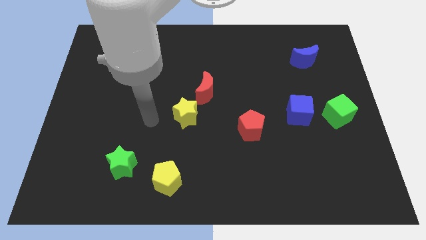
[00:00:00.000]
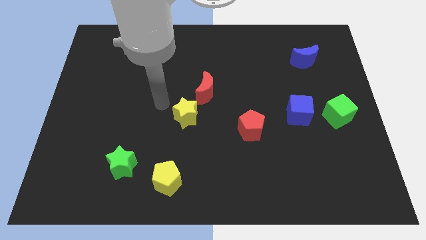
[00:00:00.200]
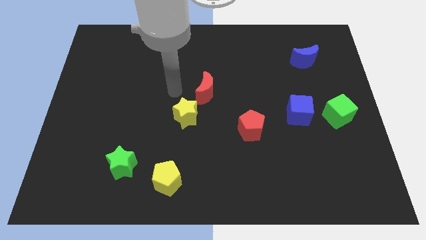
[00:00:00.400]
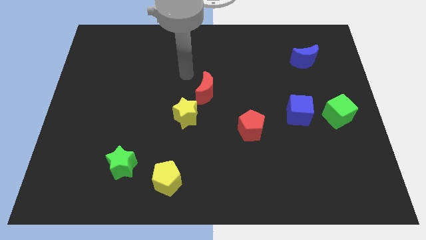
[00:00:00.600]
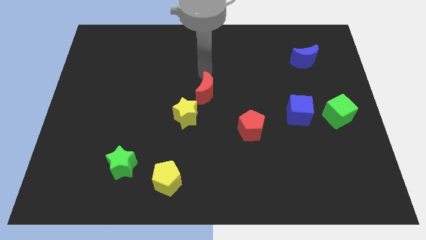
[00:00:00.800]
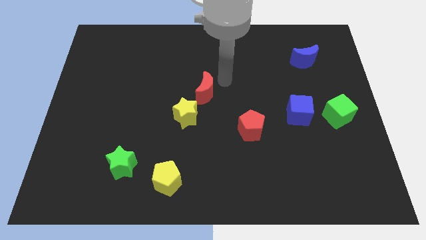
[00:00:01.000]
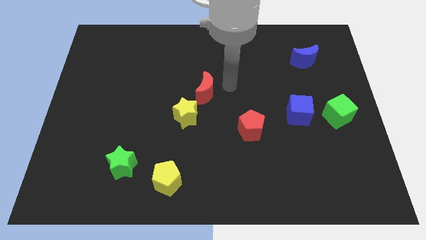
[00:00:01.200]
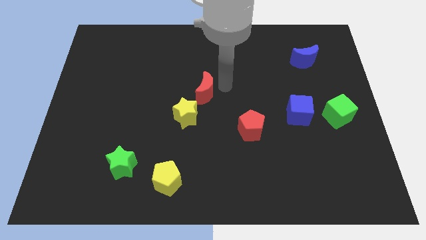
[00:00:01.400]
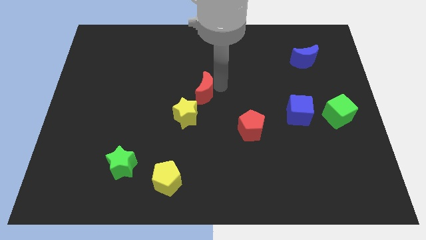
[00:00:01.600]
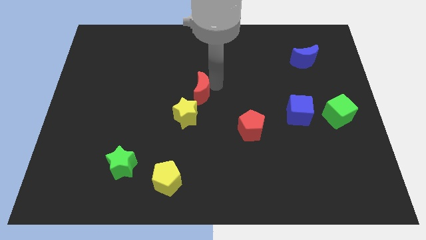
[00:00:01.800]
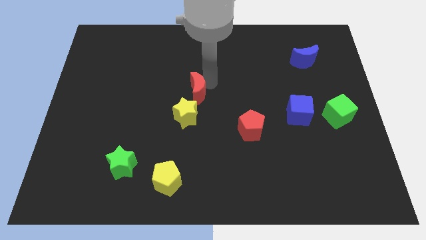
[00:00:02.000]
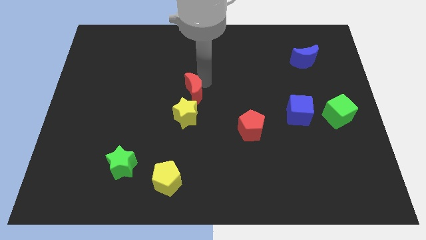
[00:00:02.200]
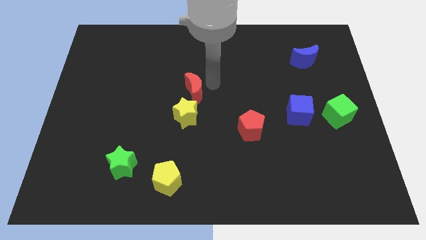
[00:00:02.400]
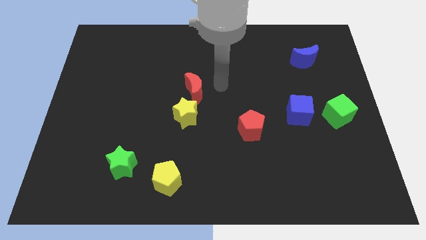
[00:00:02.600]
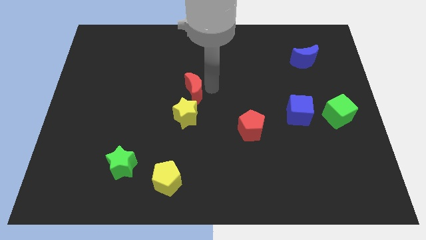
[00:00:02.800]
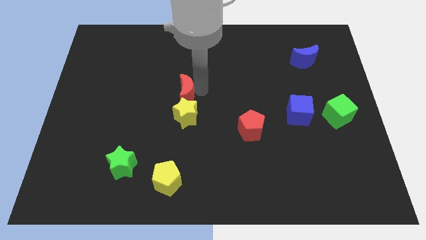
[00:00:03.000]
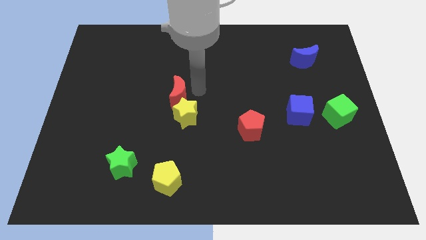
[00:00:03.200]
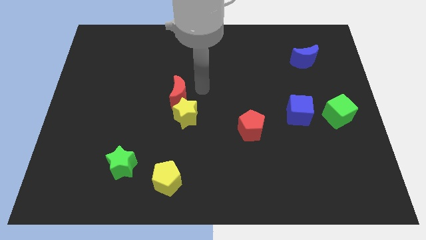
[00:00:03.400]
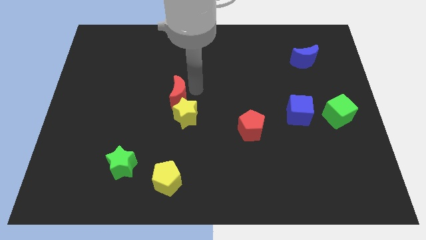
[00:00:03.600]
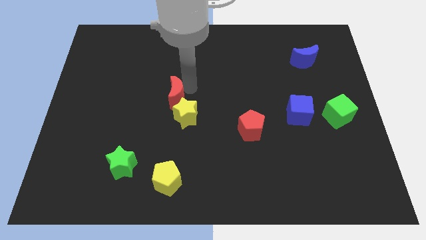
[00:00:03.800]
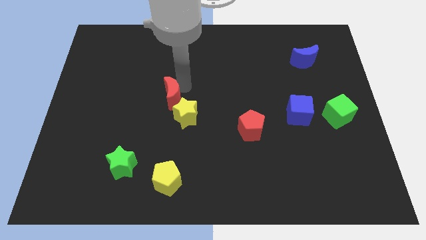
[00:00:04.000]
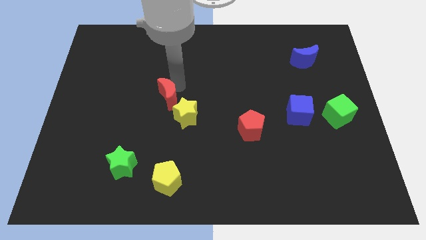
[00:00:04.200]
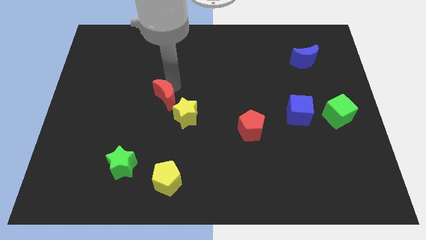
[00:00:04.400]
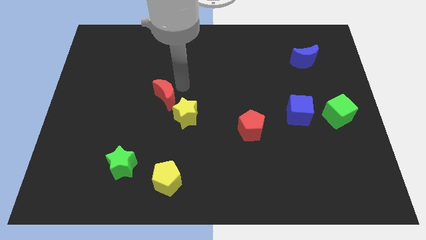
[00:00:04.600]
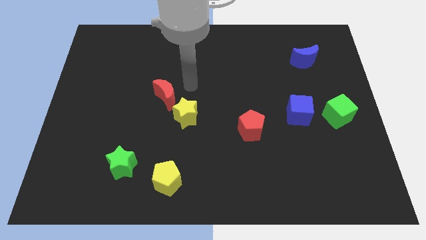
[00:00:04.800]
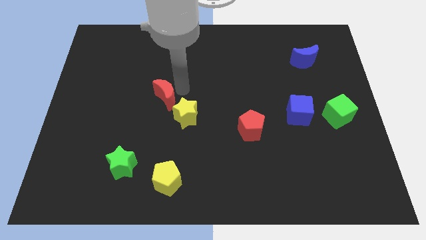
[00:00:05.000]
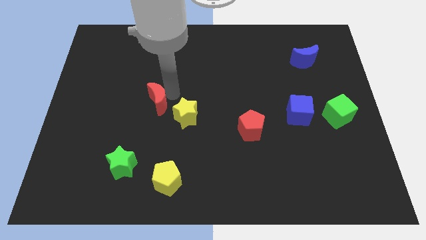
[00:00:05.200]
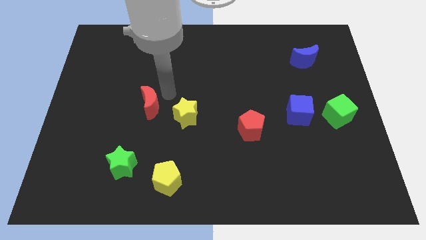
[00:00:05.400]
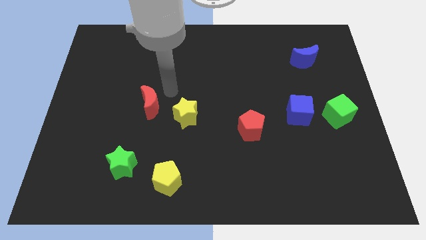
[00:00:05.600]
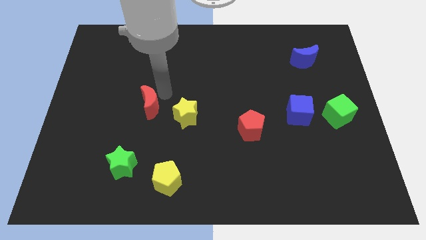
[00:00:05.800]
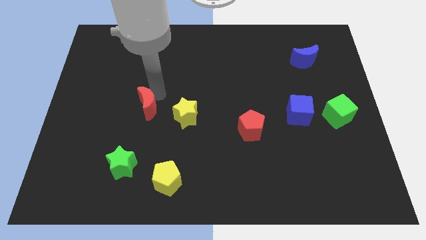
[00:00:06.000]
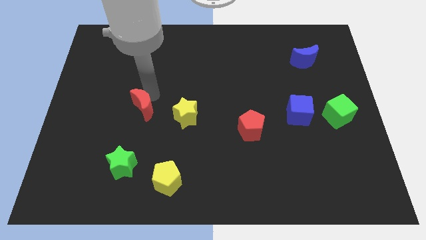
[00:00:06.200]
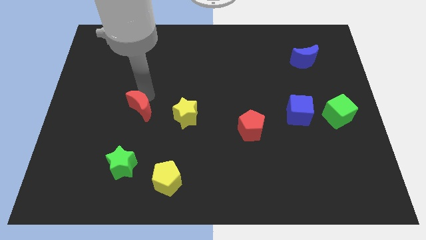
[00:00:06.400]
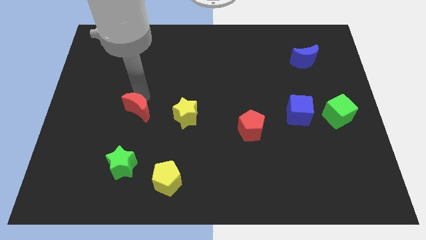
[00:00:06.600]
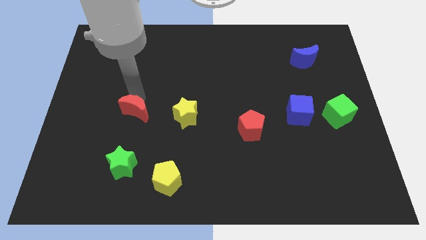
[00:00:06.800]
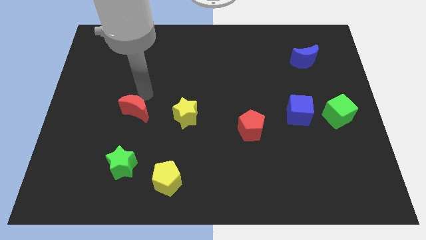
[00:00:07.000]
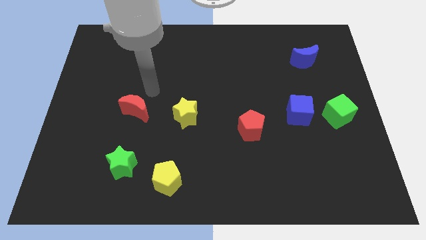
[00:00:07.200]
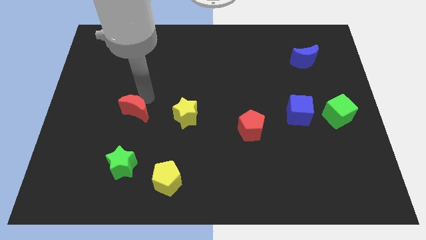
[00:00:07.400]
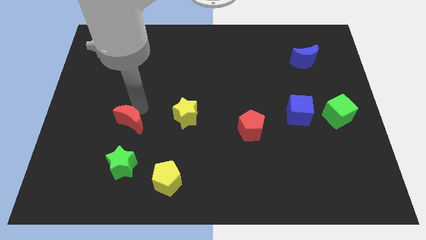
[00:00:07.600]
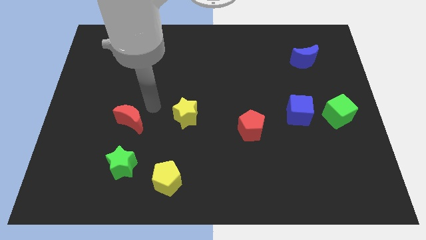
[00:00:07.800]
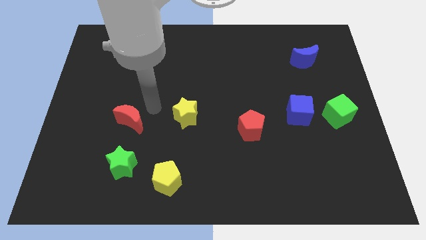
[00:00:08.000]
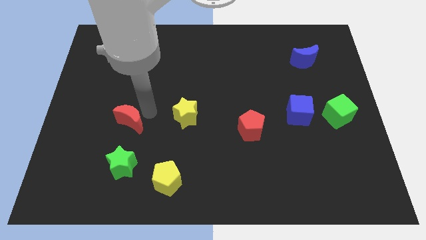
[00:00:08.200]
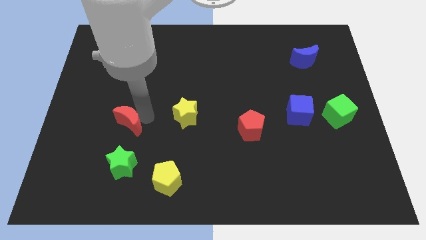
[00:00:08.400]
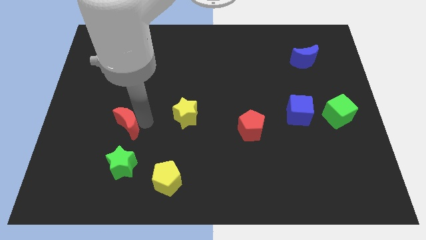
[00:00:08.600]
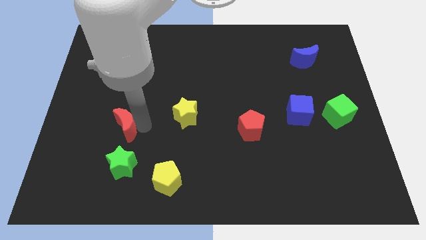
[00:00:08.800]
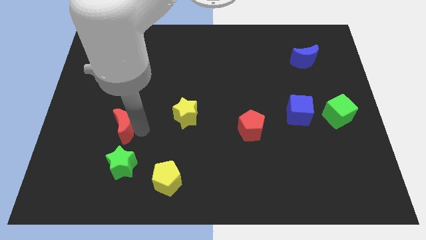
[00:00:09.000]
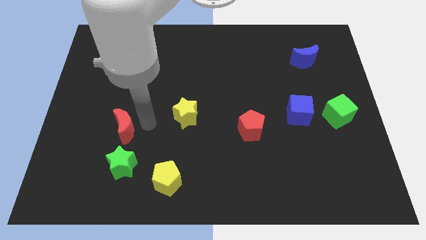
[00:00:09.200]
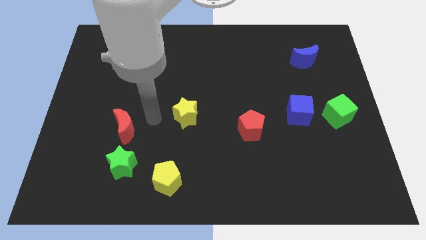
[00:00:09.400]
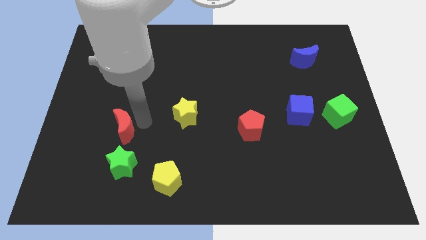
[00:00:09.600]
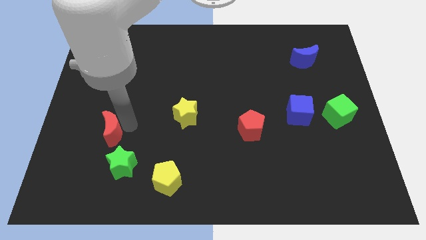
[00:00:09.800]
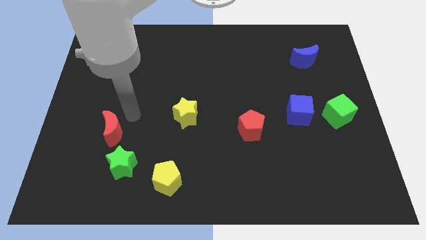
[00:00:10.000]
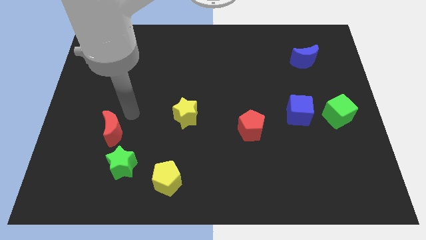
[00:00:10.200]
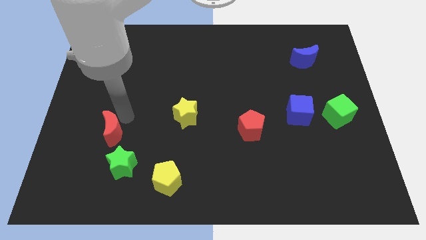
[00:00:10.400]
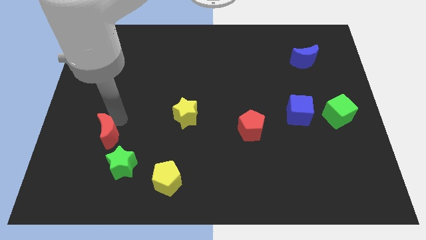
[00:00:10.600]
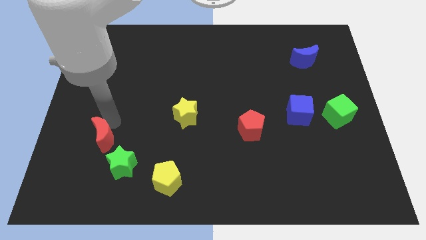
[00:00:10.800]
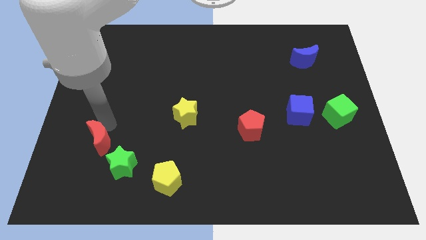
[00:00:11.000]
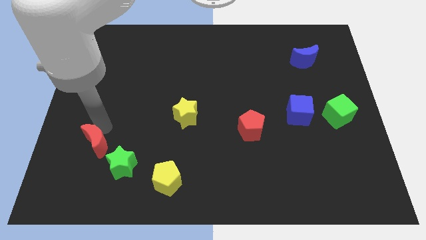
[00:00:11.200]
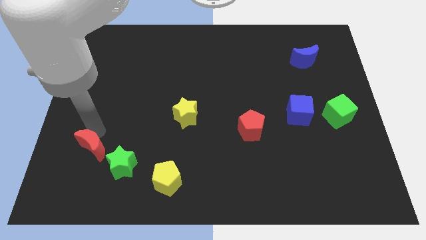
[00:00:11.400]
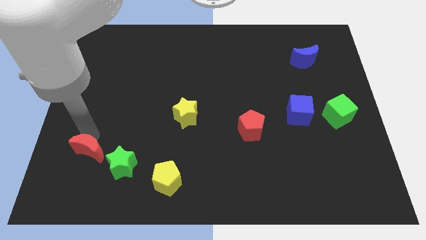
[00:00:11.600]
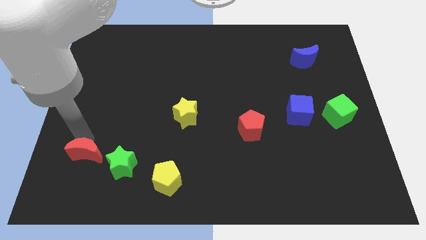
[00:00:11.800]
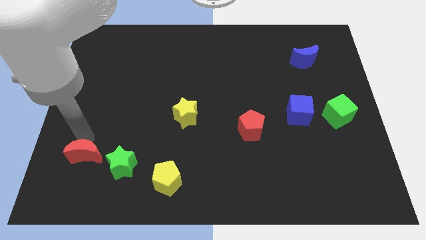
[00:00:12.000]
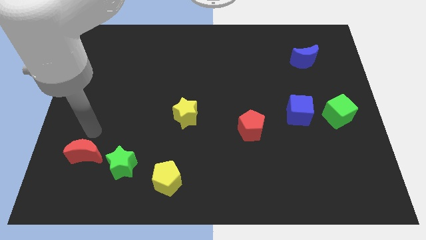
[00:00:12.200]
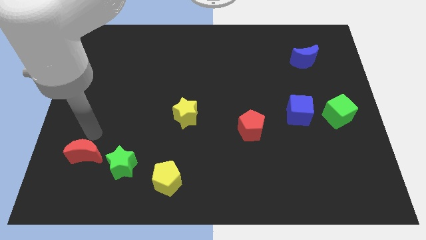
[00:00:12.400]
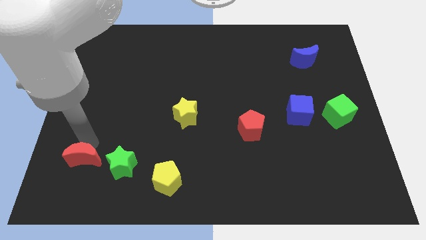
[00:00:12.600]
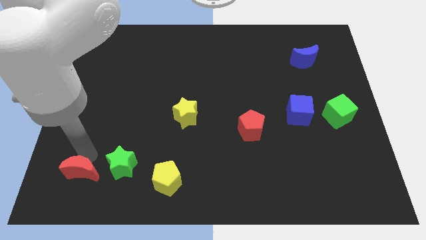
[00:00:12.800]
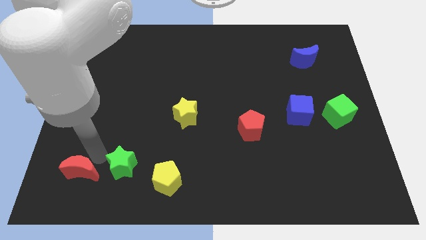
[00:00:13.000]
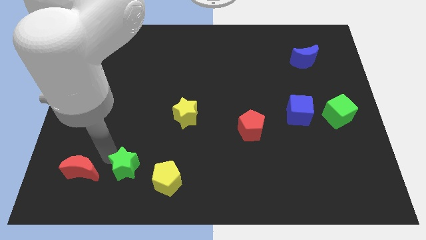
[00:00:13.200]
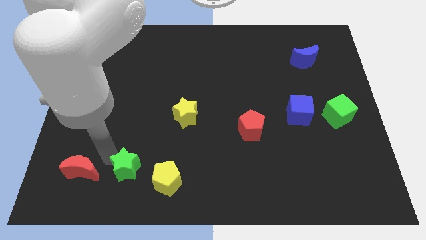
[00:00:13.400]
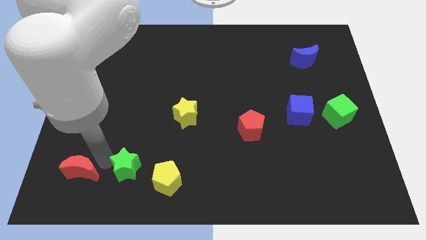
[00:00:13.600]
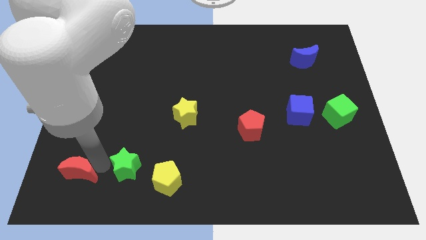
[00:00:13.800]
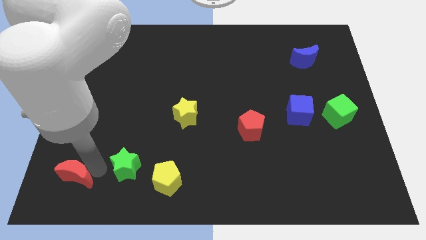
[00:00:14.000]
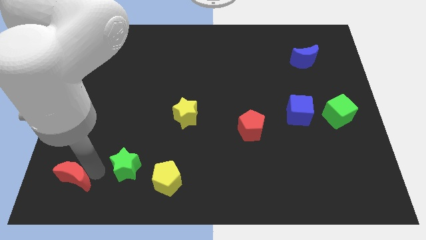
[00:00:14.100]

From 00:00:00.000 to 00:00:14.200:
slide the red moon to the bottom left of the board
